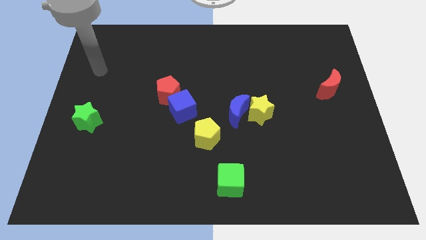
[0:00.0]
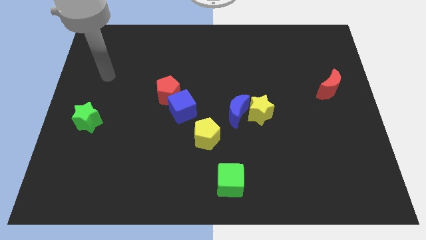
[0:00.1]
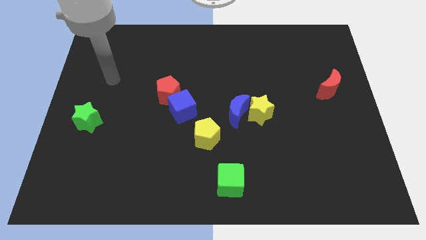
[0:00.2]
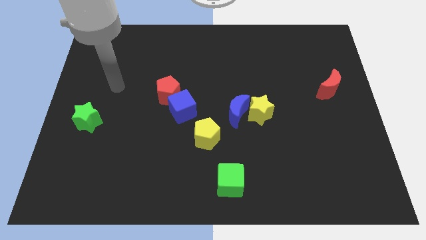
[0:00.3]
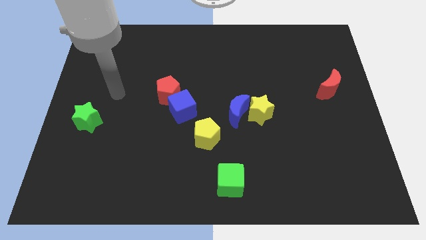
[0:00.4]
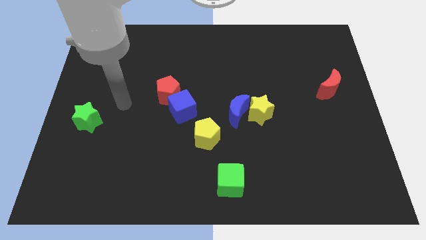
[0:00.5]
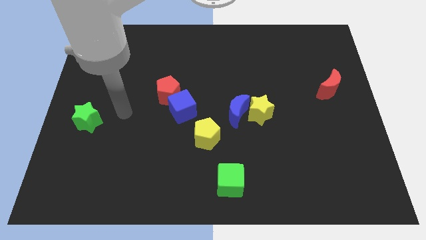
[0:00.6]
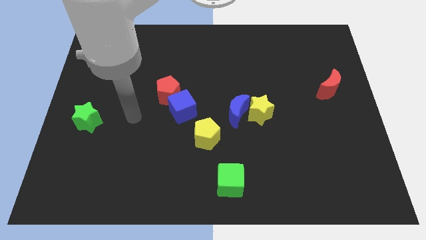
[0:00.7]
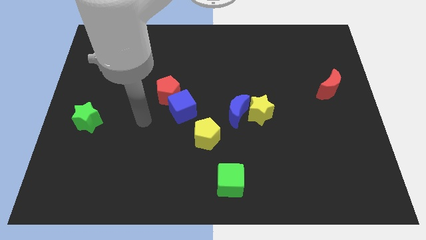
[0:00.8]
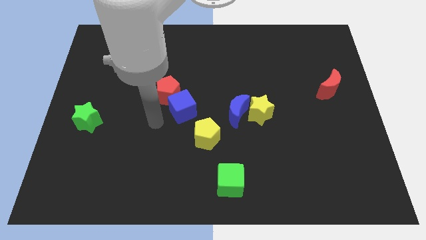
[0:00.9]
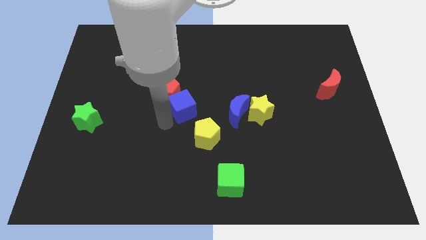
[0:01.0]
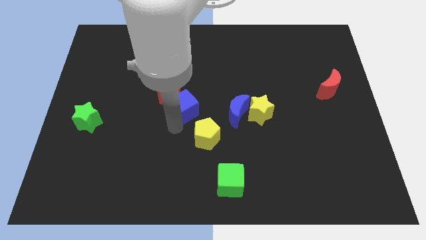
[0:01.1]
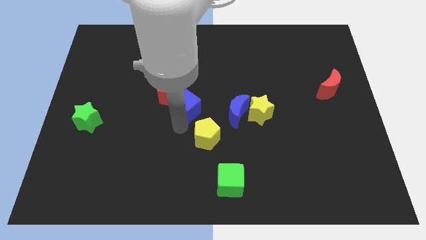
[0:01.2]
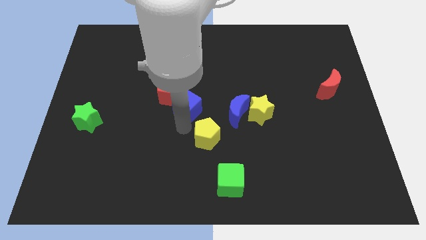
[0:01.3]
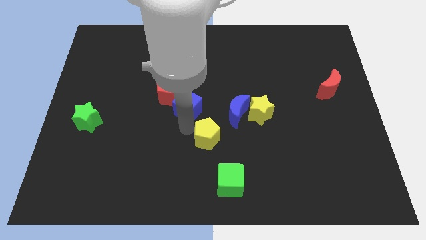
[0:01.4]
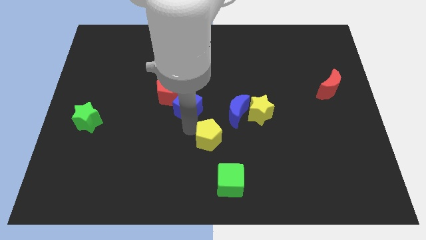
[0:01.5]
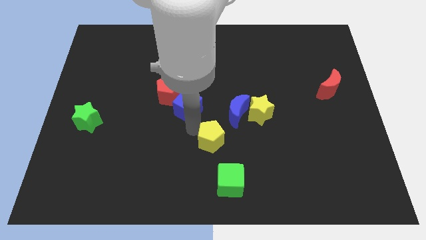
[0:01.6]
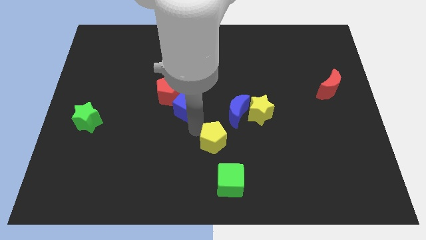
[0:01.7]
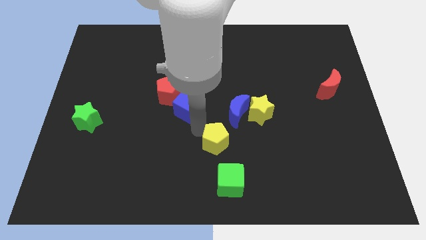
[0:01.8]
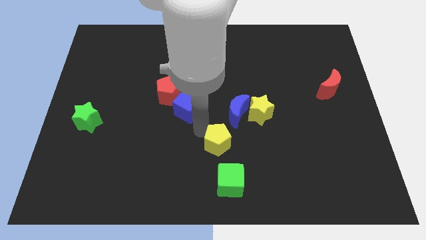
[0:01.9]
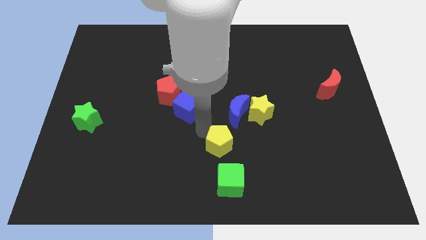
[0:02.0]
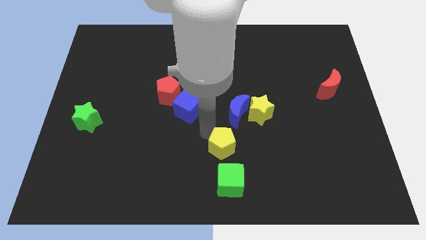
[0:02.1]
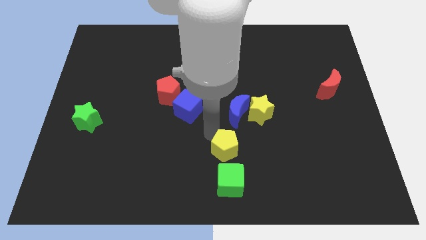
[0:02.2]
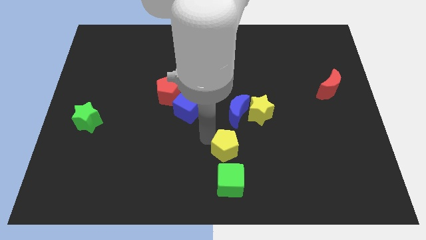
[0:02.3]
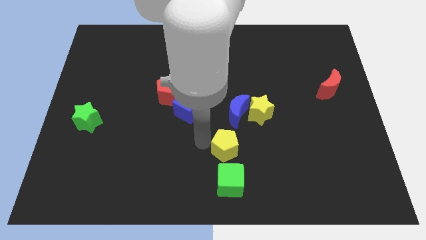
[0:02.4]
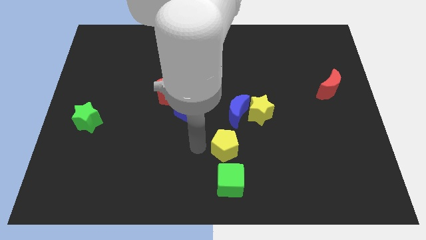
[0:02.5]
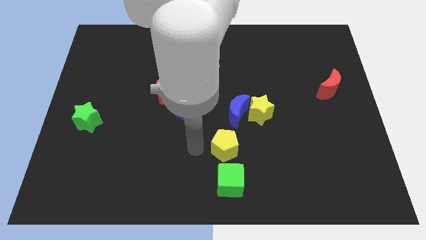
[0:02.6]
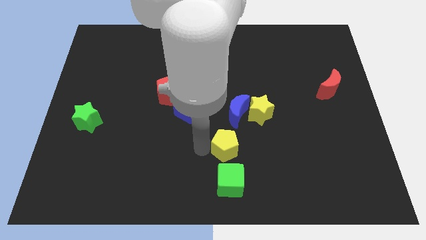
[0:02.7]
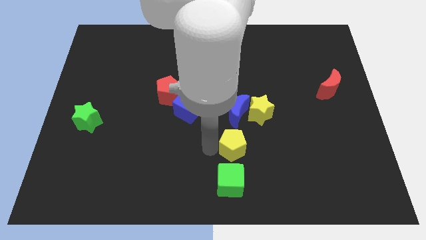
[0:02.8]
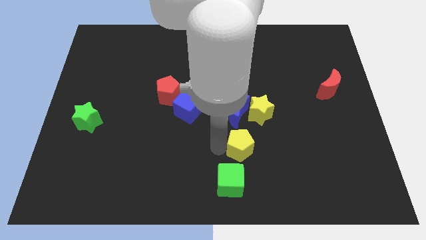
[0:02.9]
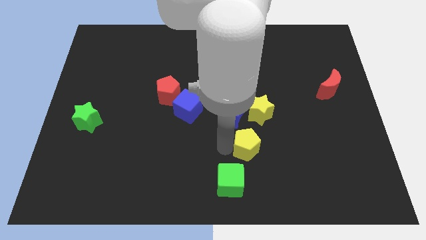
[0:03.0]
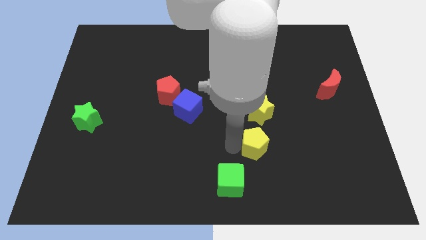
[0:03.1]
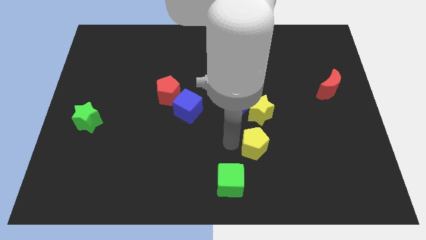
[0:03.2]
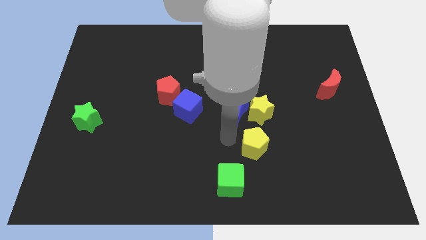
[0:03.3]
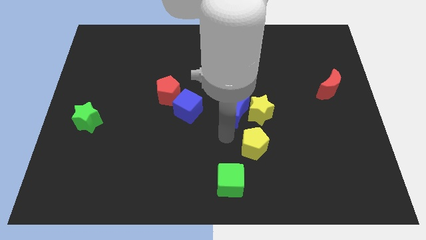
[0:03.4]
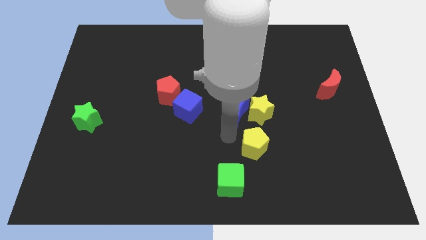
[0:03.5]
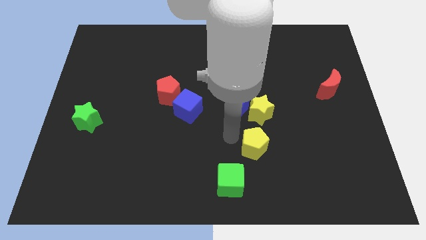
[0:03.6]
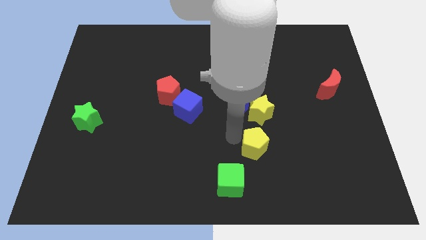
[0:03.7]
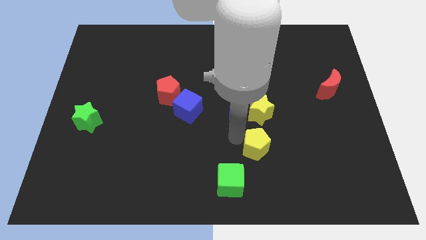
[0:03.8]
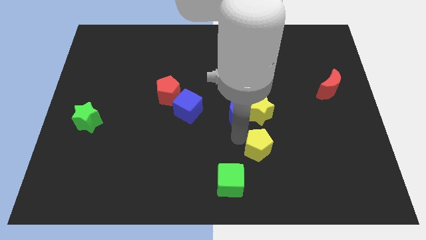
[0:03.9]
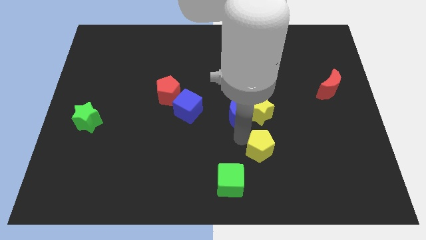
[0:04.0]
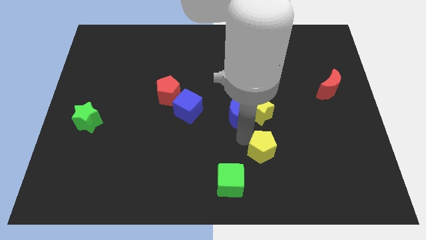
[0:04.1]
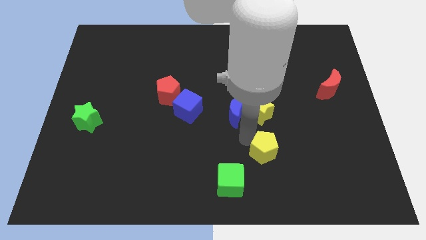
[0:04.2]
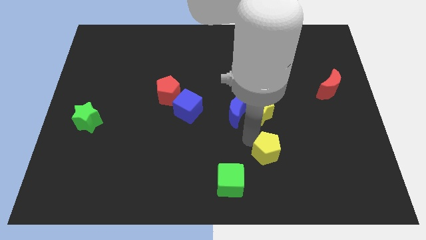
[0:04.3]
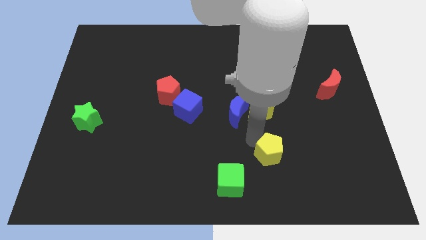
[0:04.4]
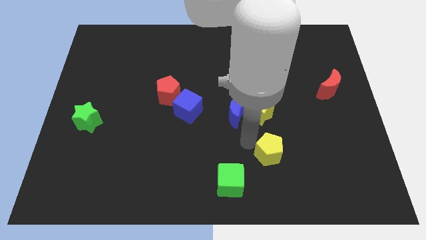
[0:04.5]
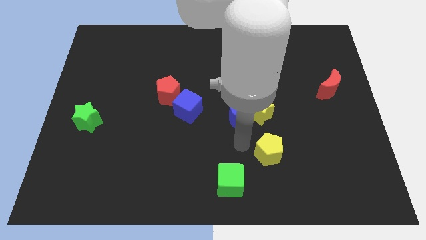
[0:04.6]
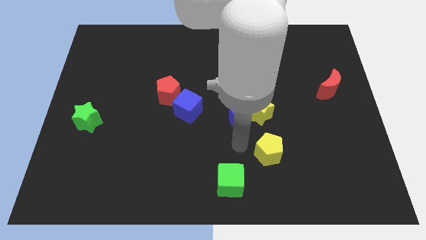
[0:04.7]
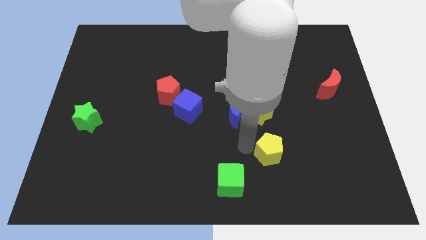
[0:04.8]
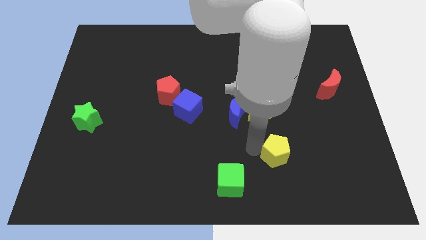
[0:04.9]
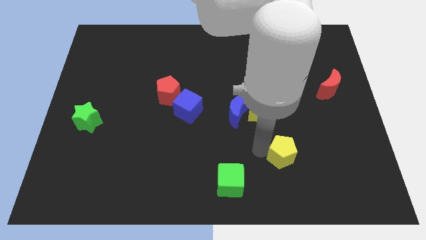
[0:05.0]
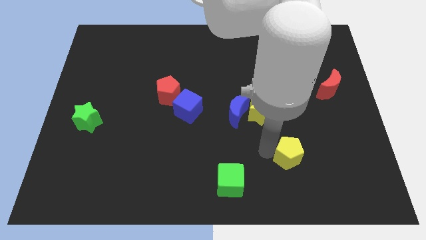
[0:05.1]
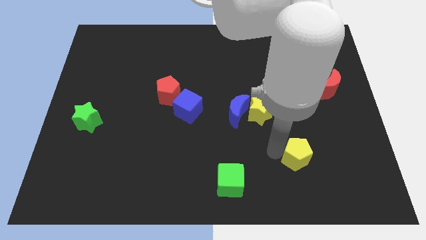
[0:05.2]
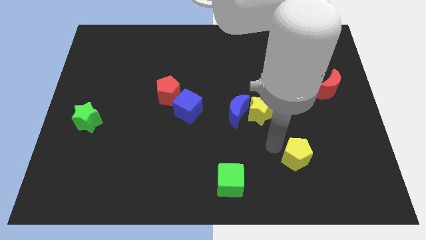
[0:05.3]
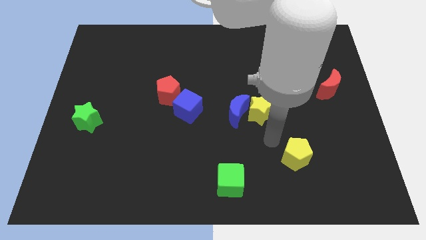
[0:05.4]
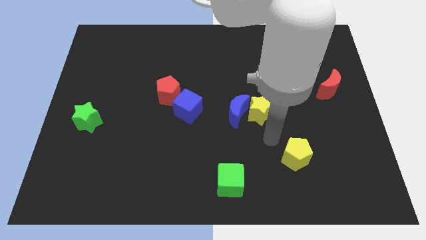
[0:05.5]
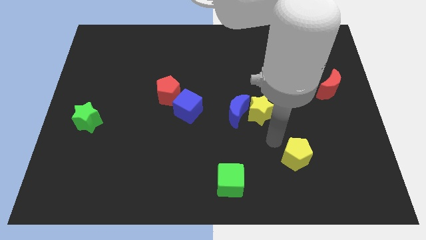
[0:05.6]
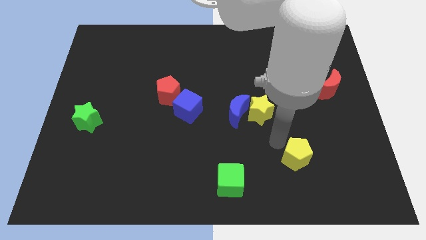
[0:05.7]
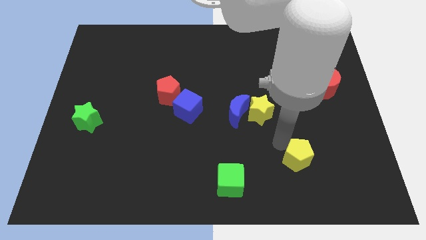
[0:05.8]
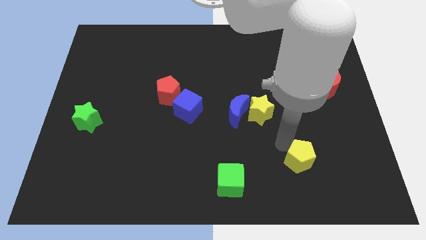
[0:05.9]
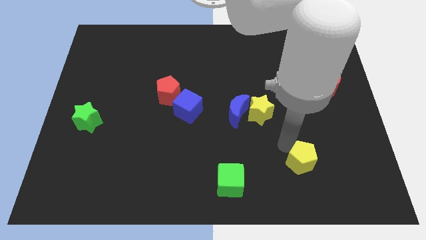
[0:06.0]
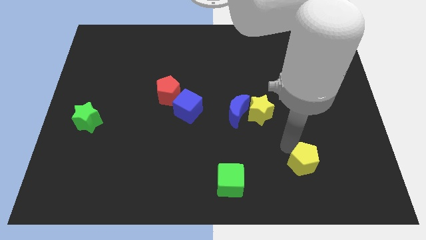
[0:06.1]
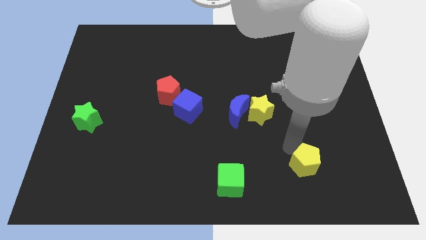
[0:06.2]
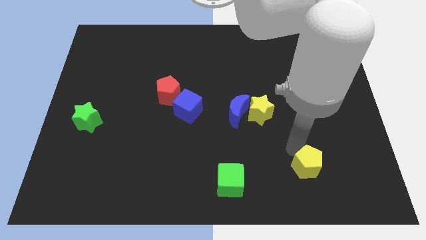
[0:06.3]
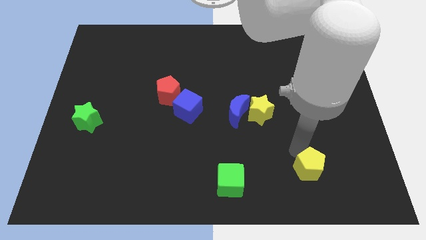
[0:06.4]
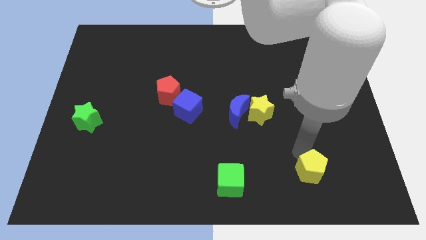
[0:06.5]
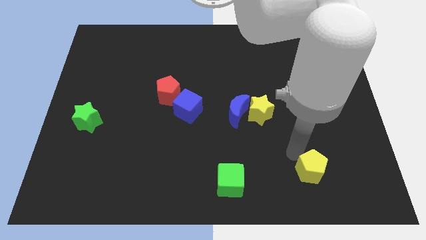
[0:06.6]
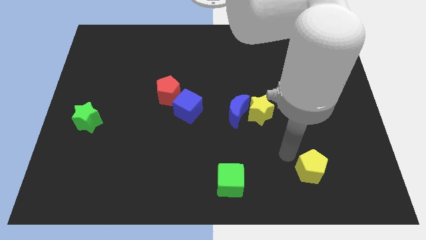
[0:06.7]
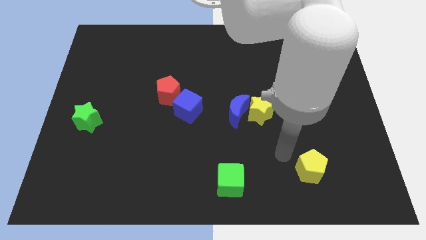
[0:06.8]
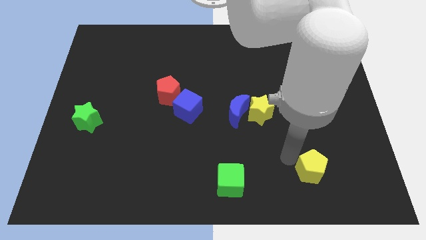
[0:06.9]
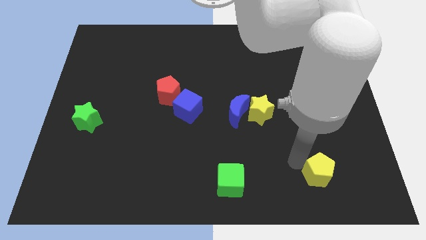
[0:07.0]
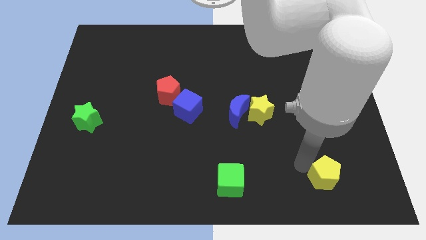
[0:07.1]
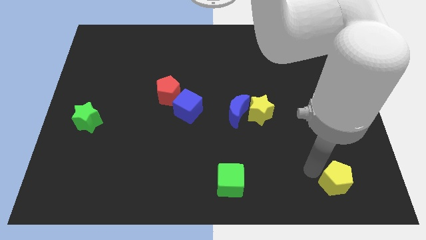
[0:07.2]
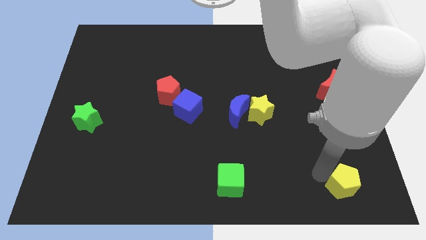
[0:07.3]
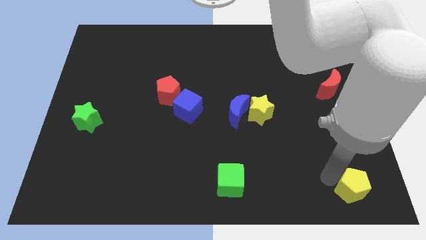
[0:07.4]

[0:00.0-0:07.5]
slide the yellow pentagon to the bottom right corner
